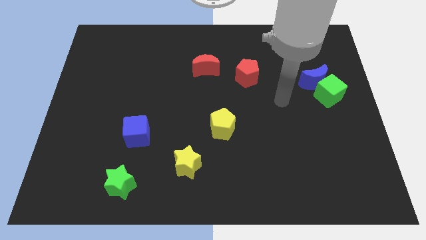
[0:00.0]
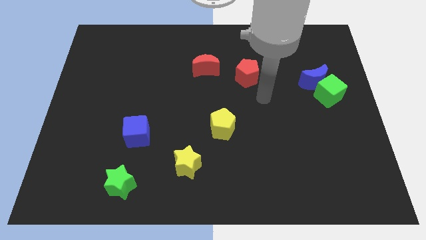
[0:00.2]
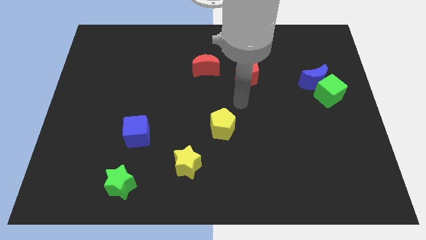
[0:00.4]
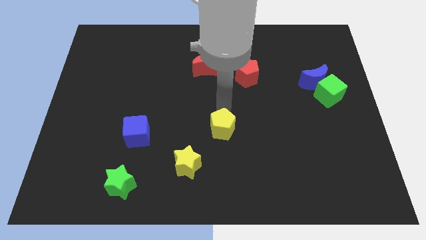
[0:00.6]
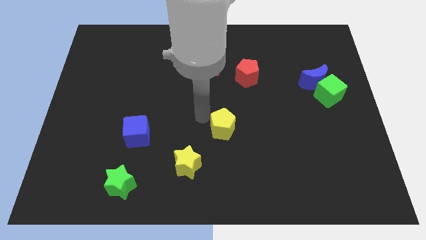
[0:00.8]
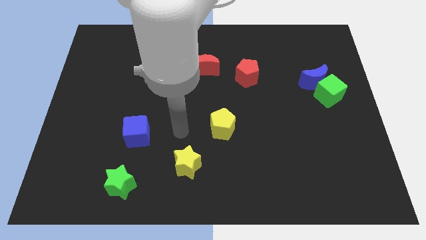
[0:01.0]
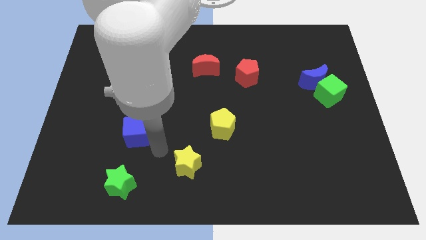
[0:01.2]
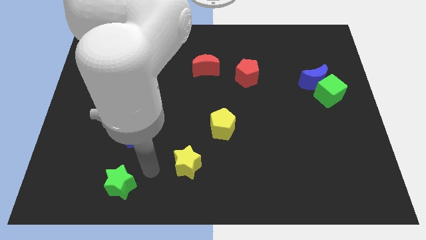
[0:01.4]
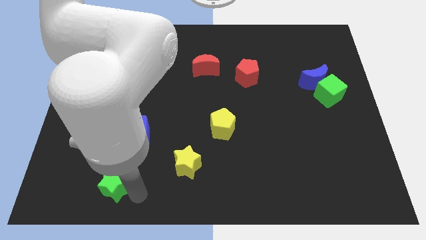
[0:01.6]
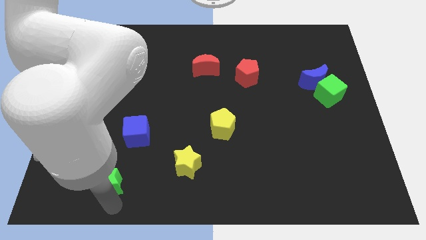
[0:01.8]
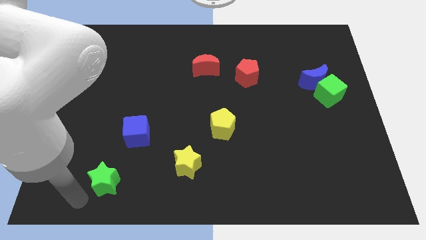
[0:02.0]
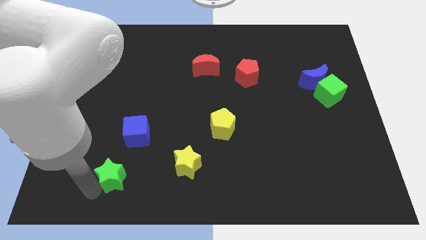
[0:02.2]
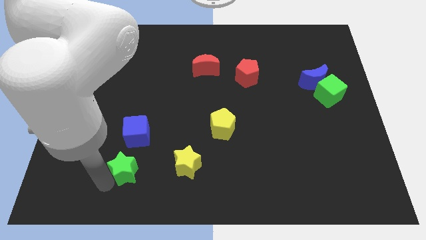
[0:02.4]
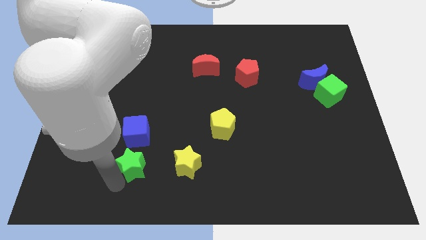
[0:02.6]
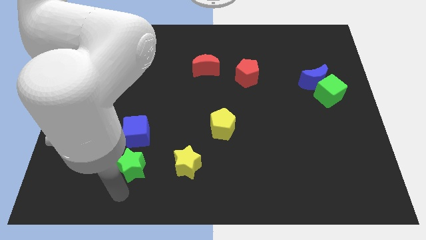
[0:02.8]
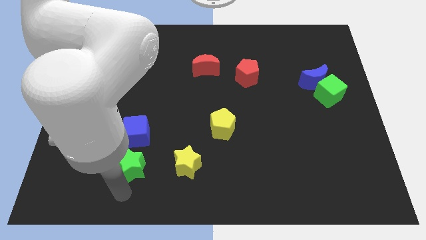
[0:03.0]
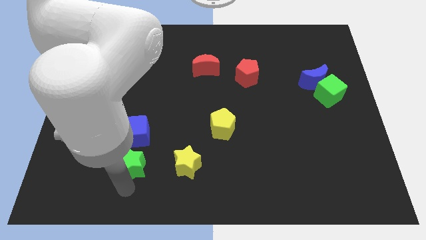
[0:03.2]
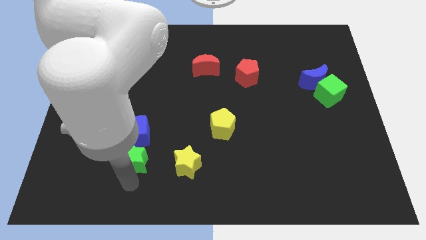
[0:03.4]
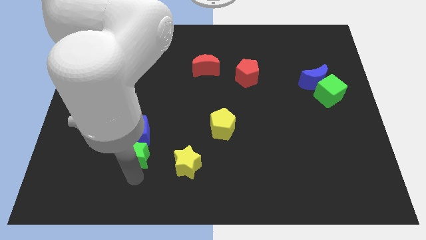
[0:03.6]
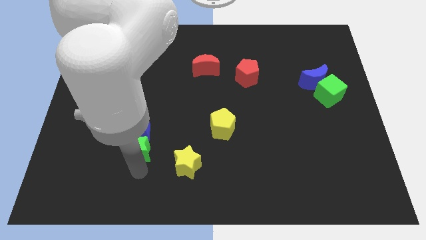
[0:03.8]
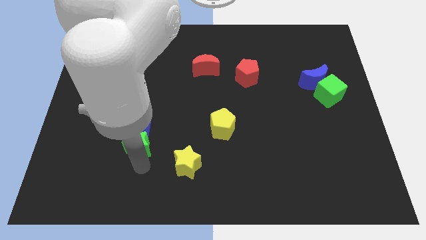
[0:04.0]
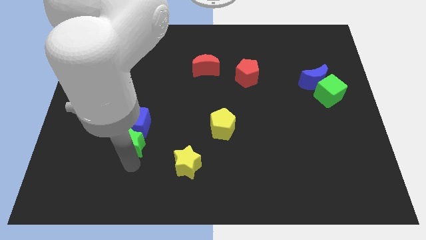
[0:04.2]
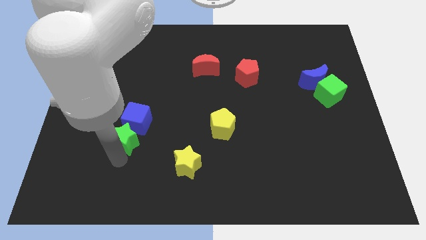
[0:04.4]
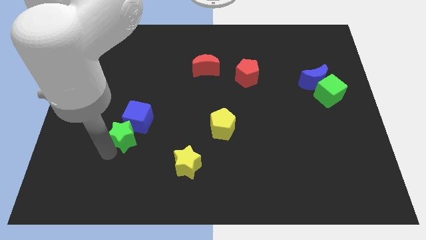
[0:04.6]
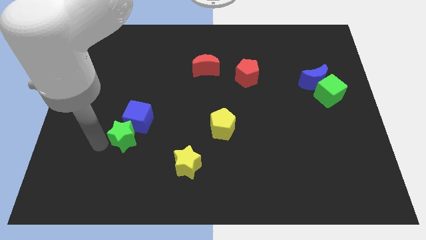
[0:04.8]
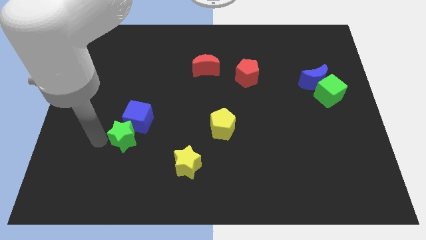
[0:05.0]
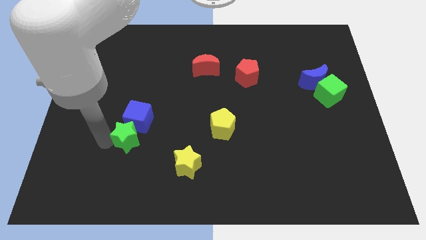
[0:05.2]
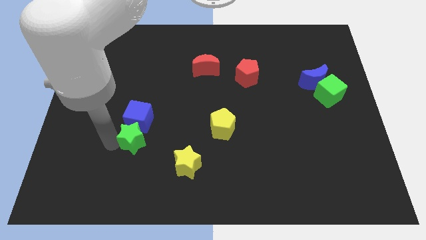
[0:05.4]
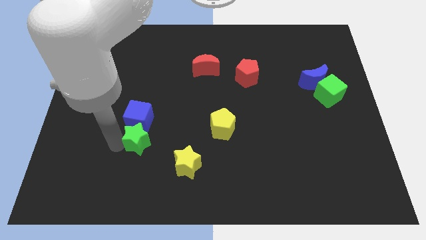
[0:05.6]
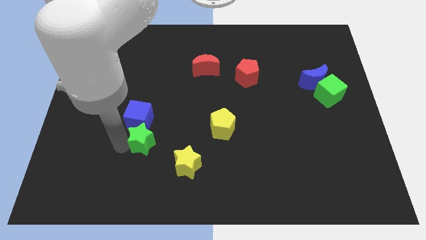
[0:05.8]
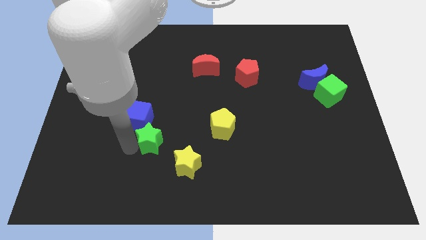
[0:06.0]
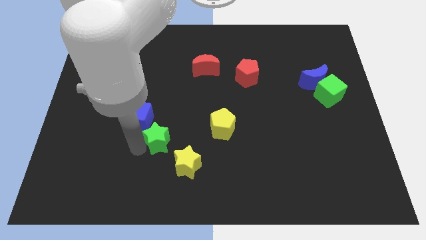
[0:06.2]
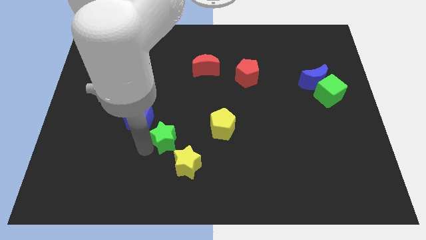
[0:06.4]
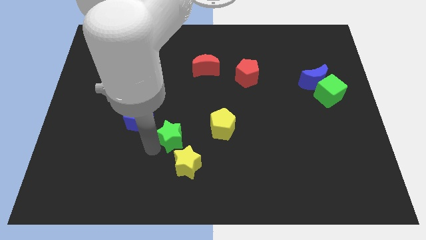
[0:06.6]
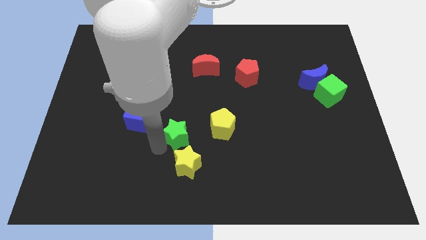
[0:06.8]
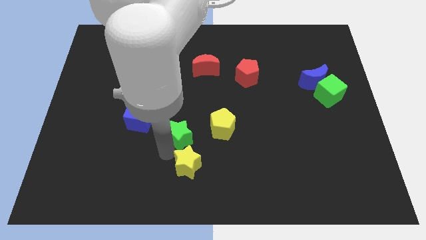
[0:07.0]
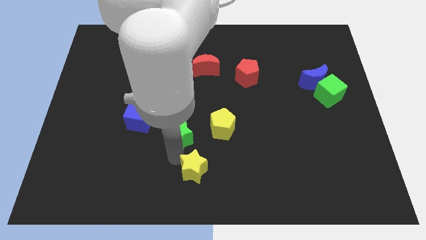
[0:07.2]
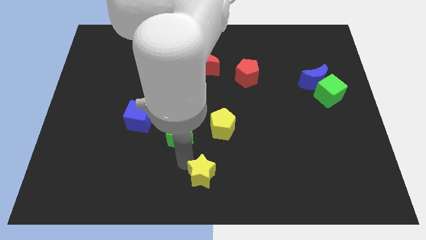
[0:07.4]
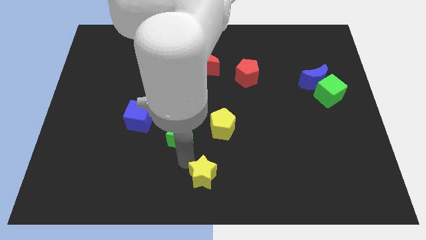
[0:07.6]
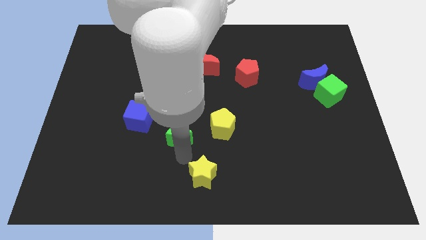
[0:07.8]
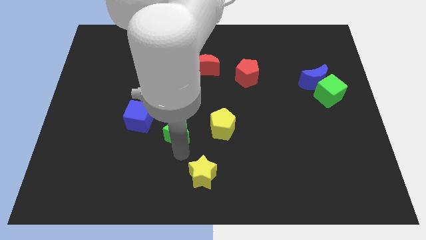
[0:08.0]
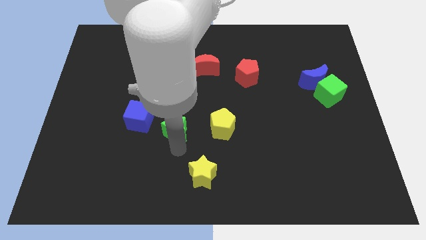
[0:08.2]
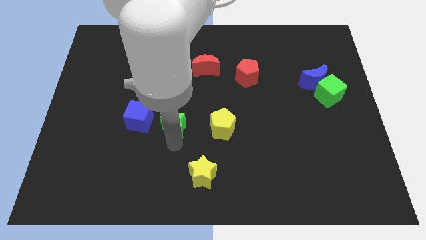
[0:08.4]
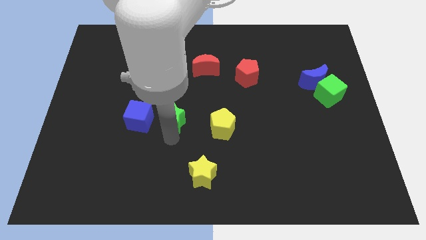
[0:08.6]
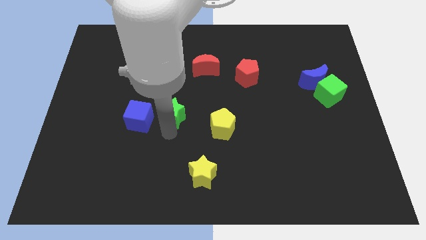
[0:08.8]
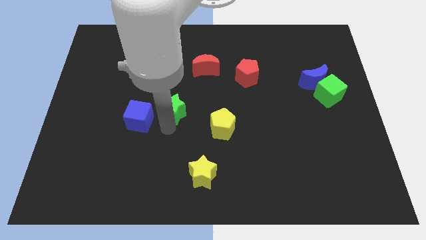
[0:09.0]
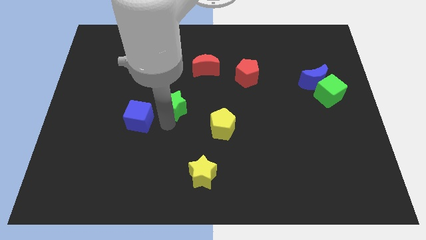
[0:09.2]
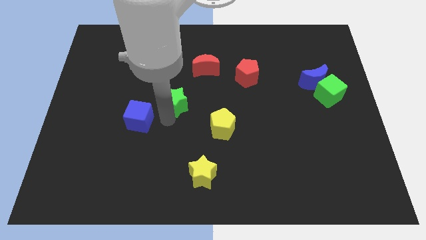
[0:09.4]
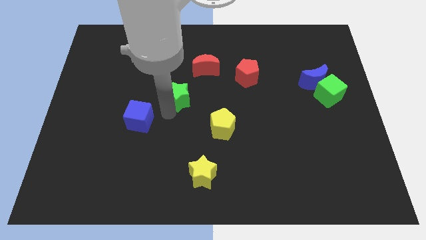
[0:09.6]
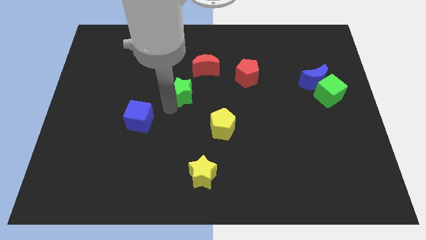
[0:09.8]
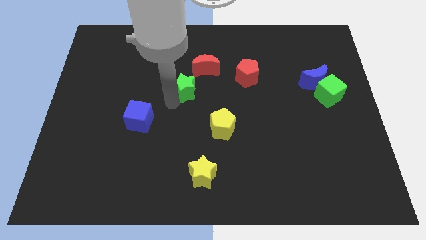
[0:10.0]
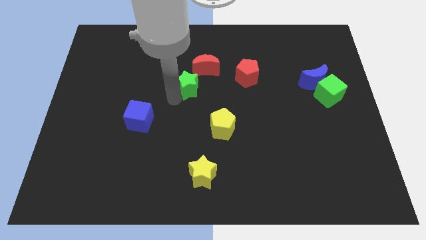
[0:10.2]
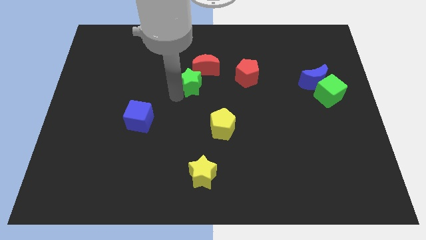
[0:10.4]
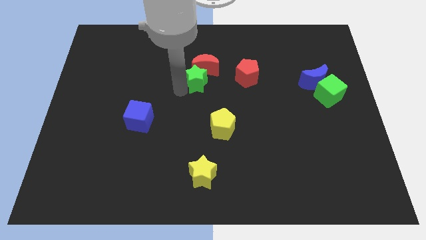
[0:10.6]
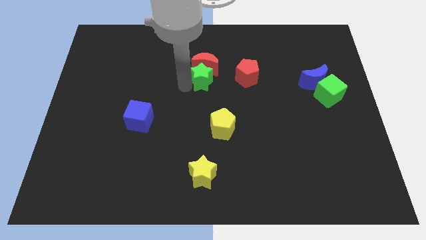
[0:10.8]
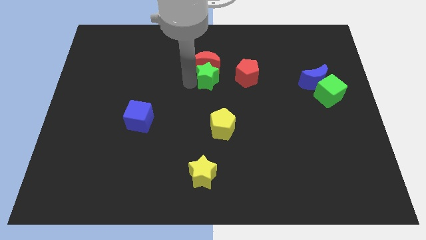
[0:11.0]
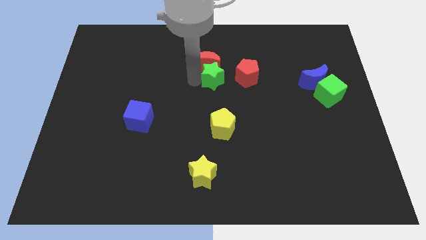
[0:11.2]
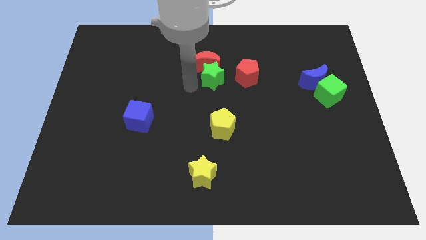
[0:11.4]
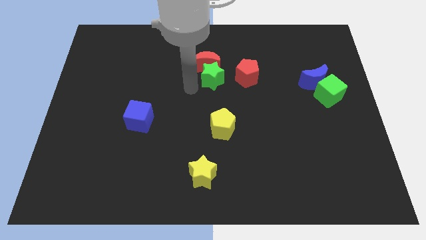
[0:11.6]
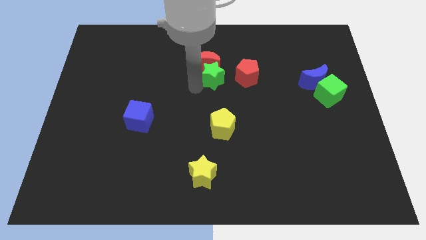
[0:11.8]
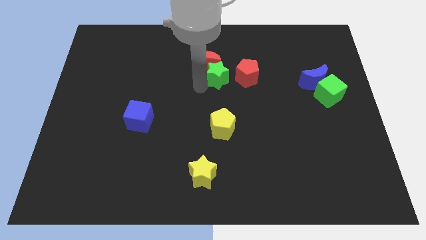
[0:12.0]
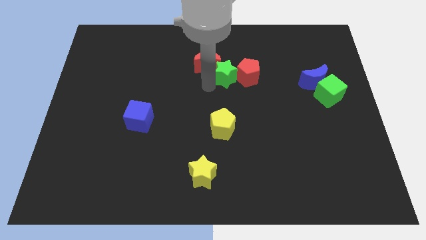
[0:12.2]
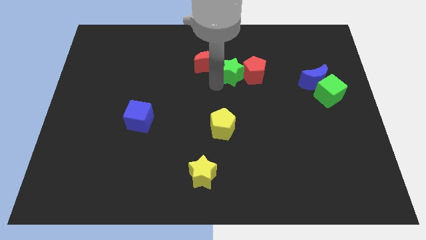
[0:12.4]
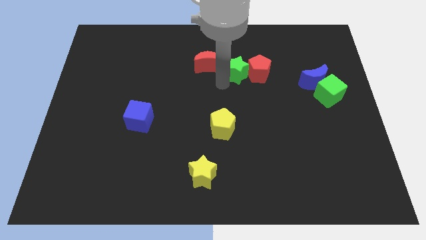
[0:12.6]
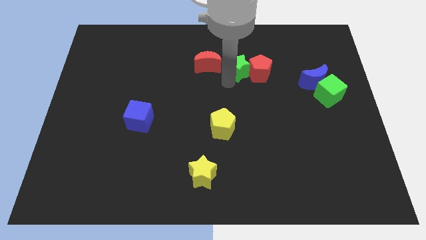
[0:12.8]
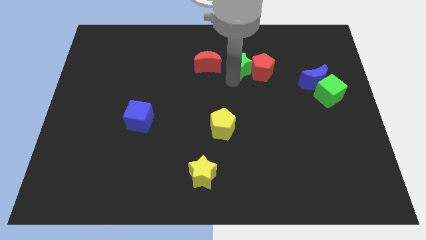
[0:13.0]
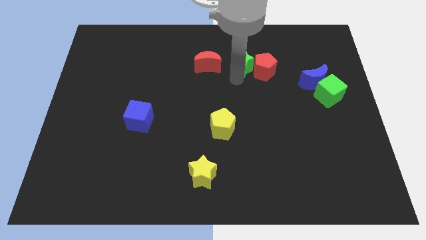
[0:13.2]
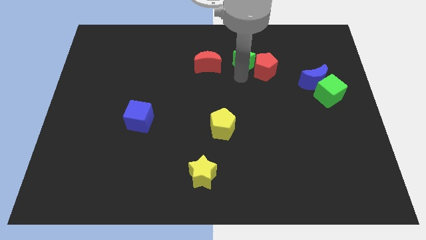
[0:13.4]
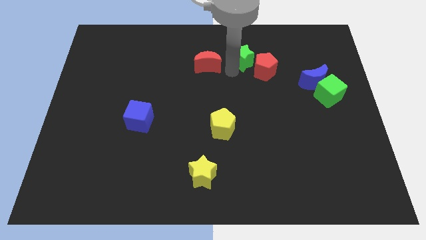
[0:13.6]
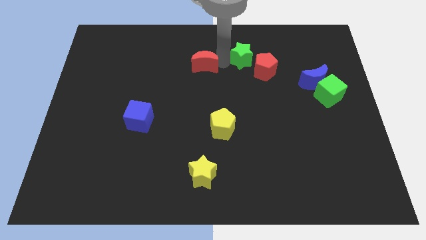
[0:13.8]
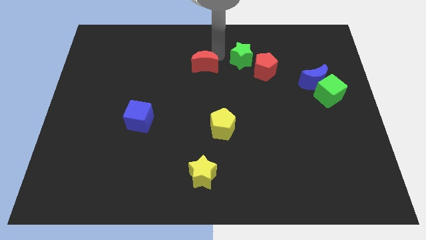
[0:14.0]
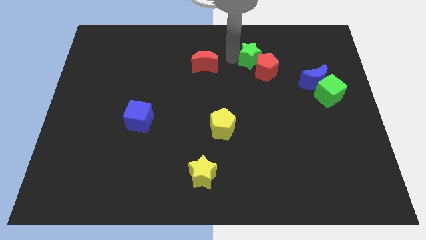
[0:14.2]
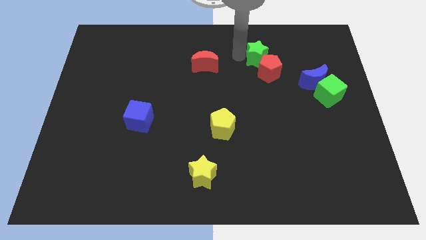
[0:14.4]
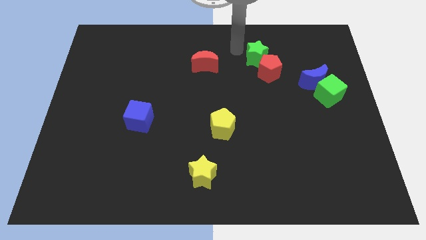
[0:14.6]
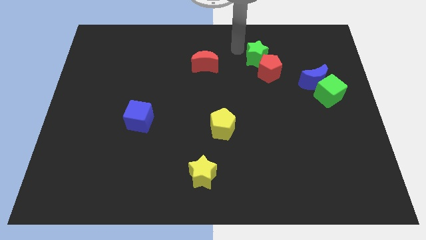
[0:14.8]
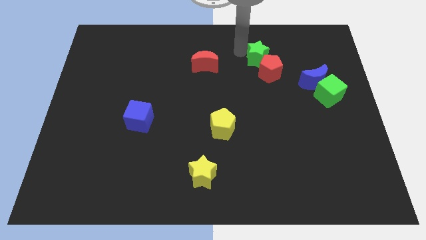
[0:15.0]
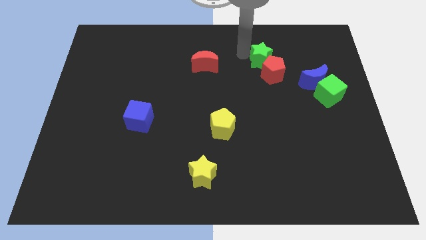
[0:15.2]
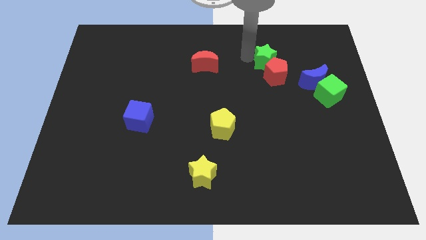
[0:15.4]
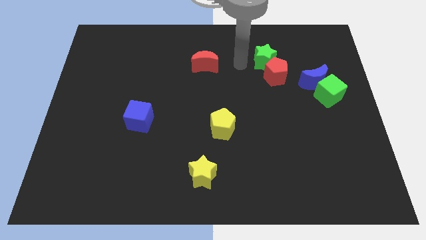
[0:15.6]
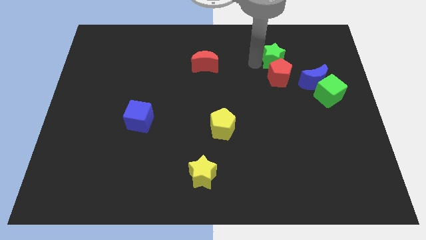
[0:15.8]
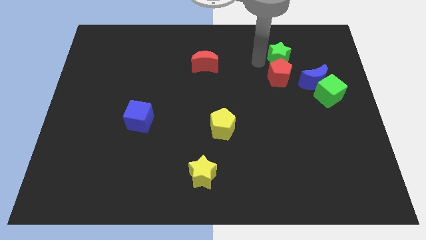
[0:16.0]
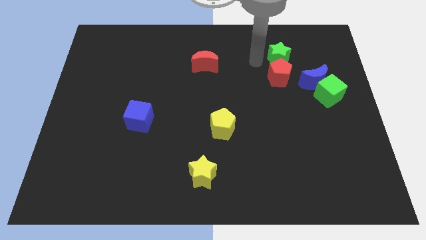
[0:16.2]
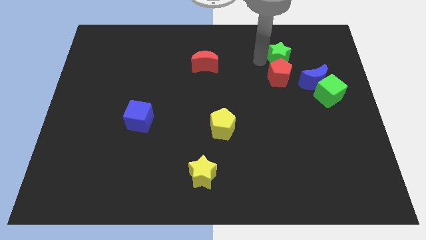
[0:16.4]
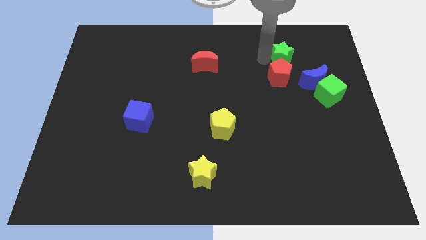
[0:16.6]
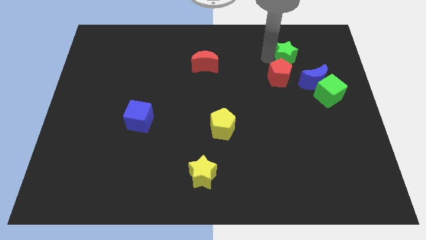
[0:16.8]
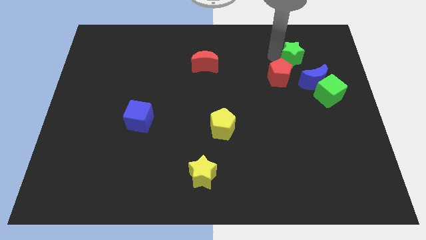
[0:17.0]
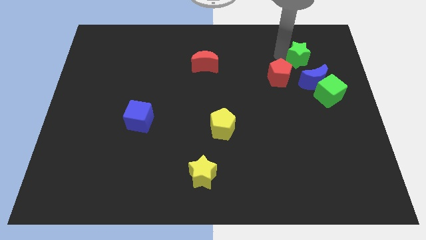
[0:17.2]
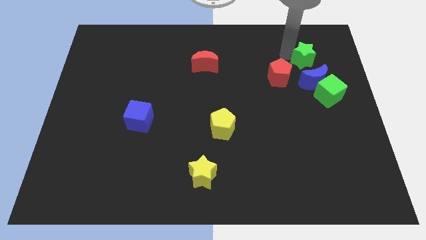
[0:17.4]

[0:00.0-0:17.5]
slide the green star to the top side of the green cube
